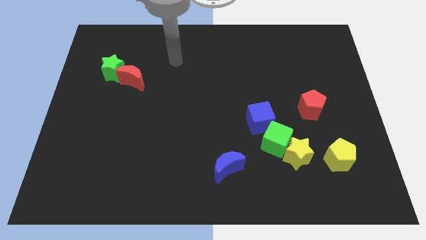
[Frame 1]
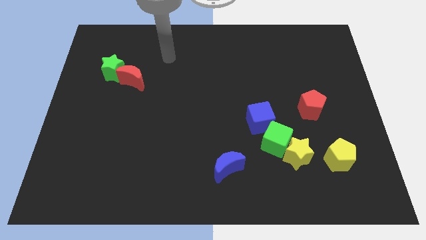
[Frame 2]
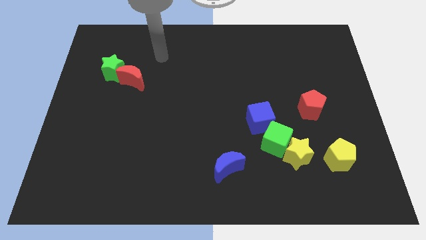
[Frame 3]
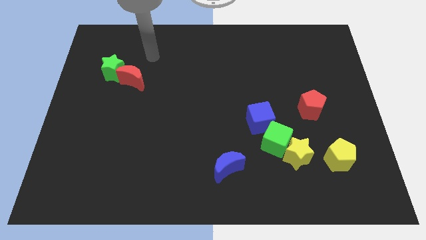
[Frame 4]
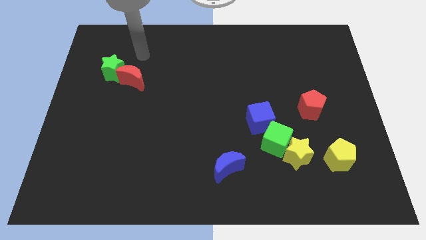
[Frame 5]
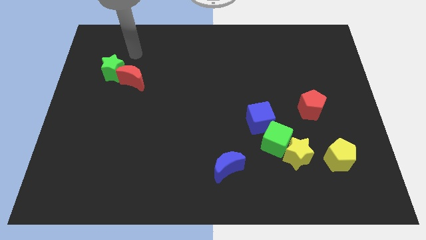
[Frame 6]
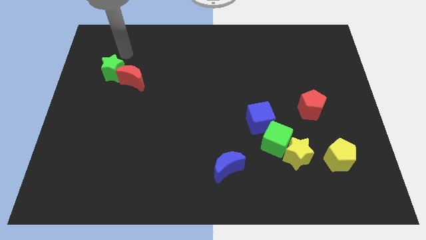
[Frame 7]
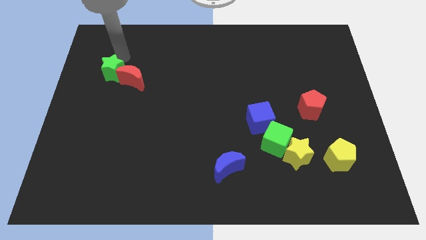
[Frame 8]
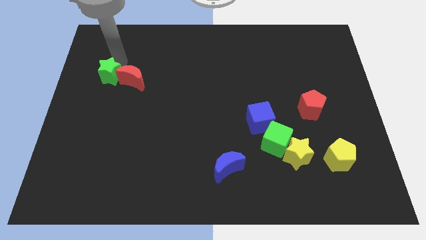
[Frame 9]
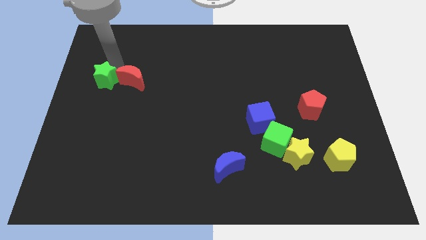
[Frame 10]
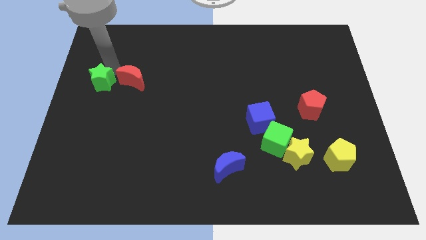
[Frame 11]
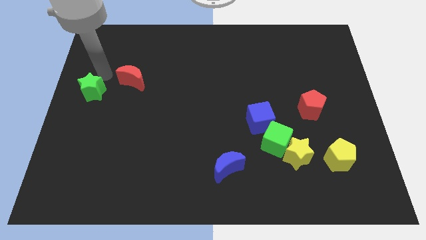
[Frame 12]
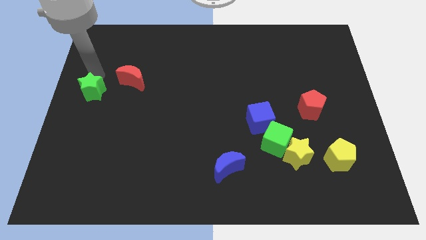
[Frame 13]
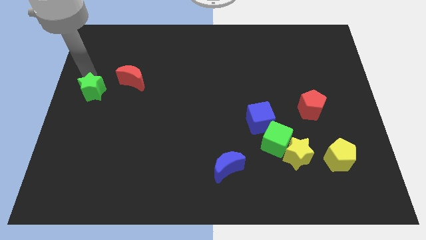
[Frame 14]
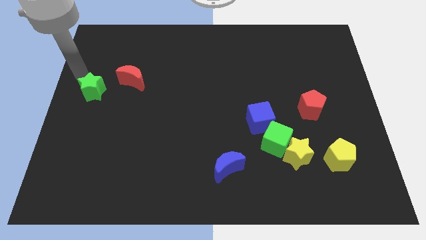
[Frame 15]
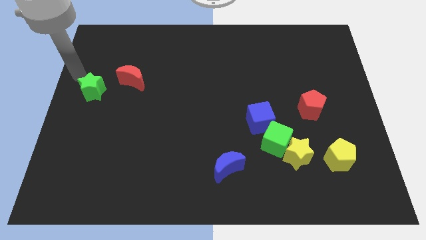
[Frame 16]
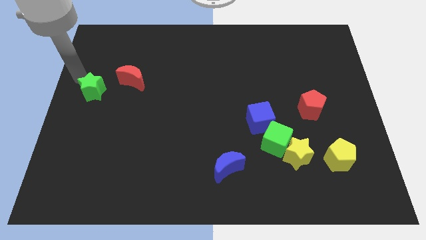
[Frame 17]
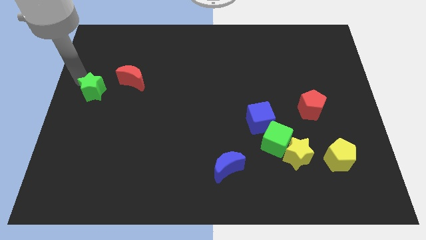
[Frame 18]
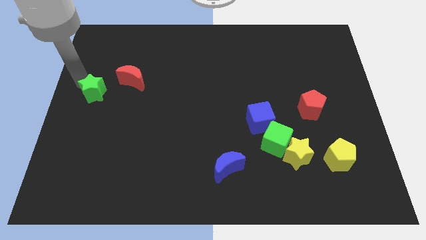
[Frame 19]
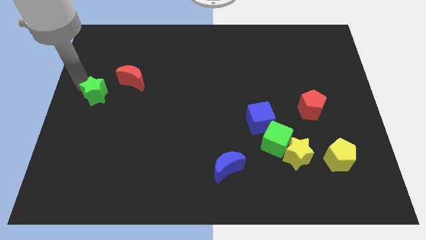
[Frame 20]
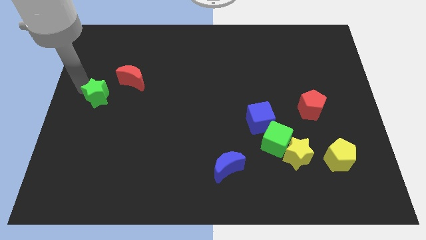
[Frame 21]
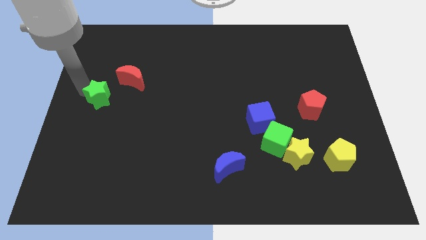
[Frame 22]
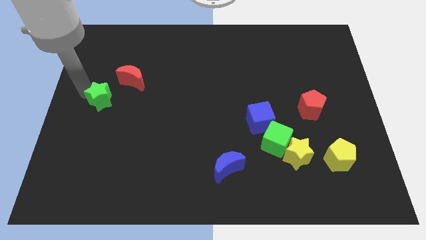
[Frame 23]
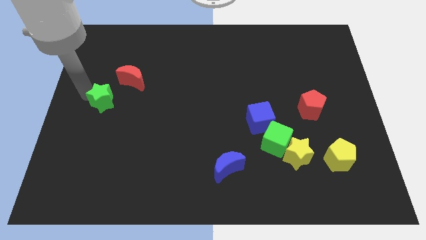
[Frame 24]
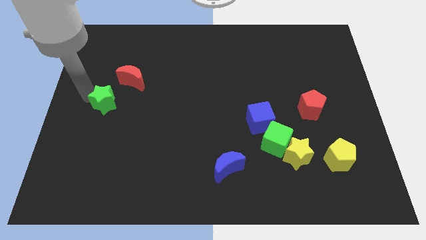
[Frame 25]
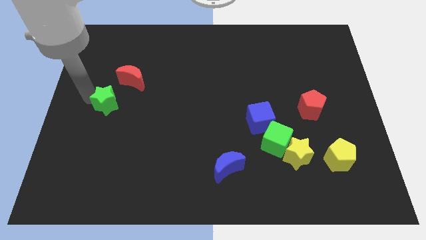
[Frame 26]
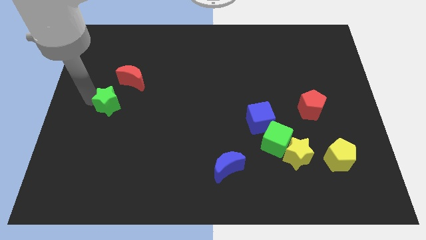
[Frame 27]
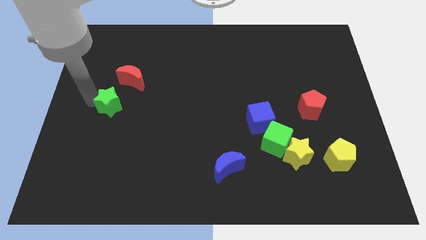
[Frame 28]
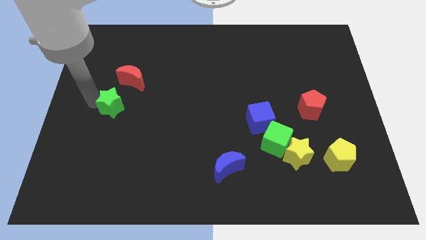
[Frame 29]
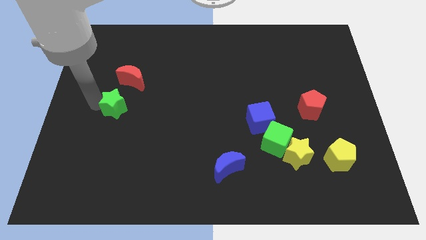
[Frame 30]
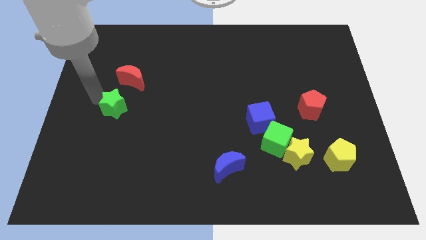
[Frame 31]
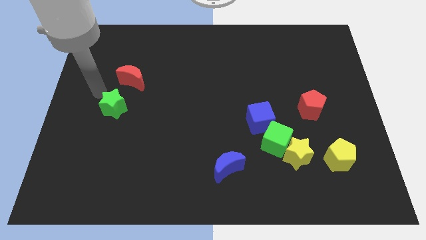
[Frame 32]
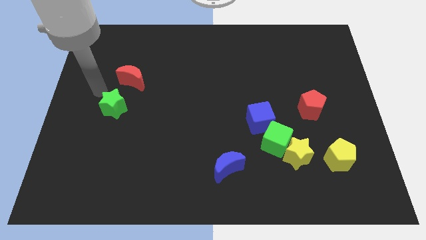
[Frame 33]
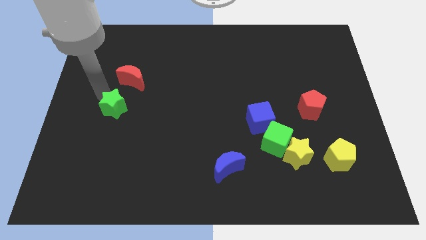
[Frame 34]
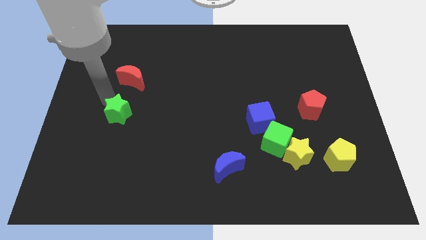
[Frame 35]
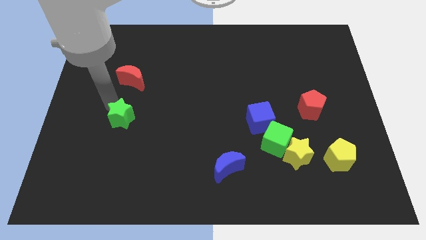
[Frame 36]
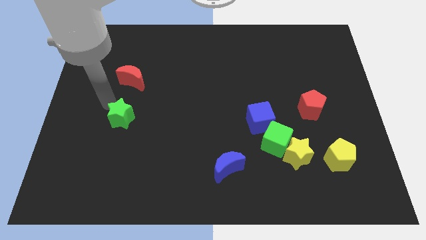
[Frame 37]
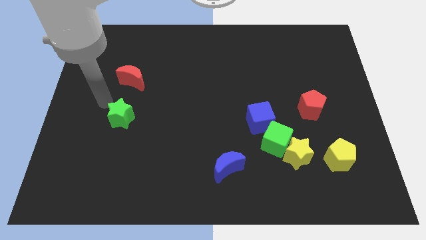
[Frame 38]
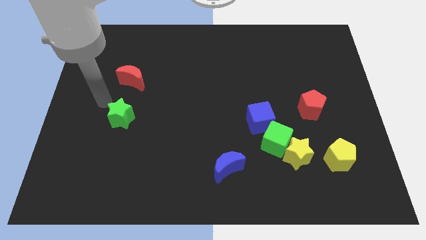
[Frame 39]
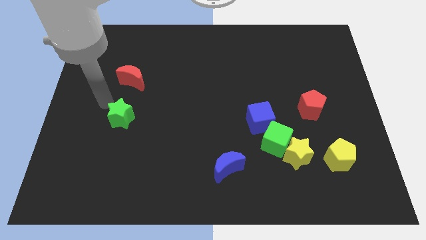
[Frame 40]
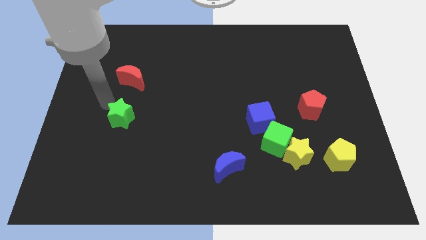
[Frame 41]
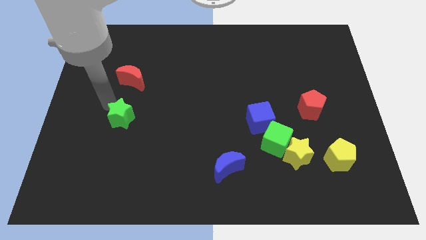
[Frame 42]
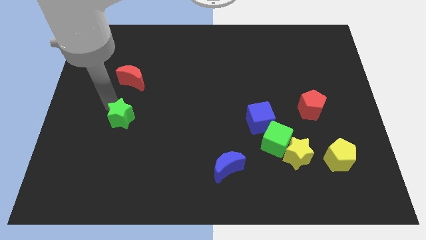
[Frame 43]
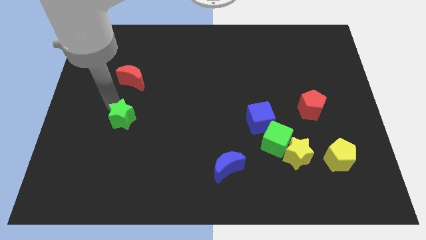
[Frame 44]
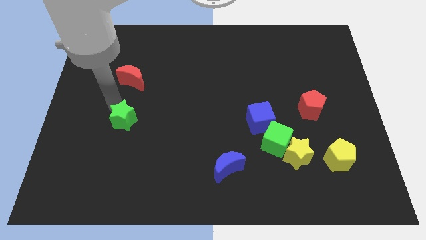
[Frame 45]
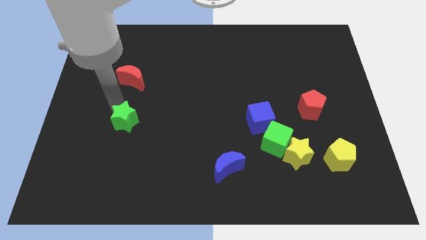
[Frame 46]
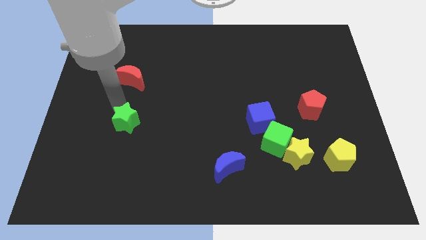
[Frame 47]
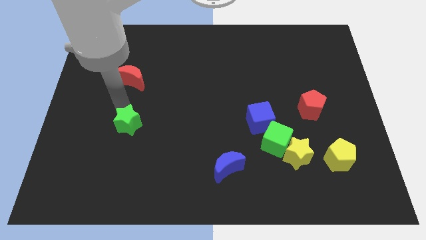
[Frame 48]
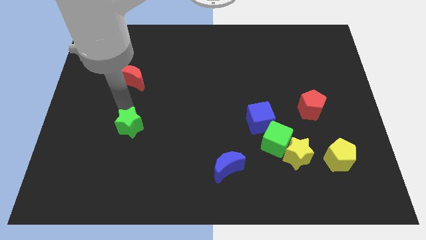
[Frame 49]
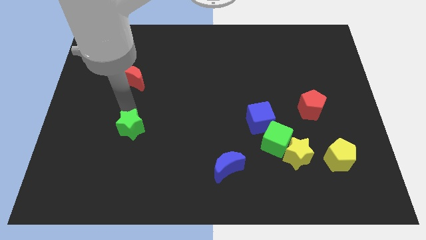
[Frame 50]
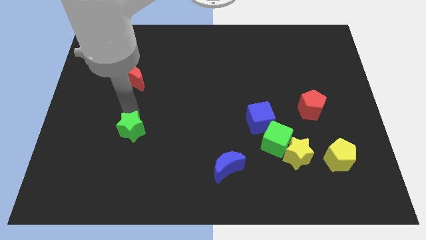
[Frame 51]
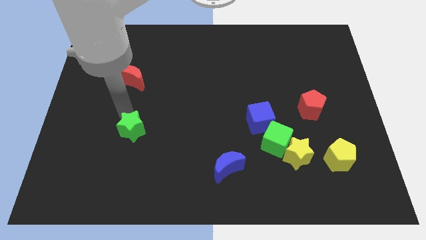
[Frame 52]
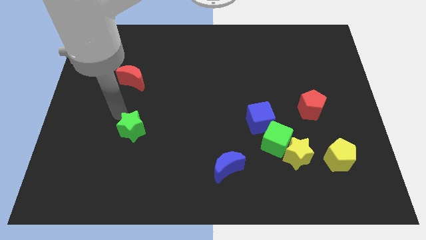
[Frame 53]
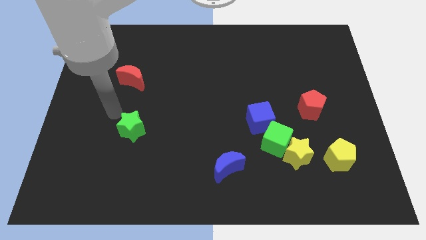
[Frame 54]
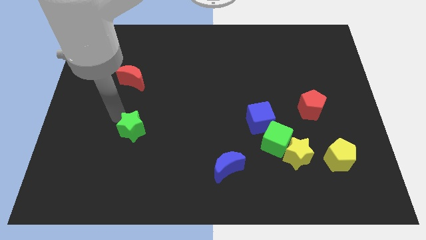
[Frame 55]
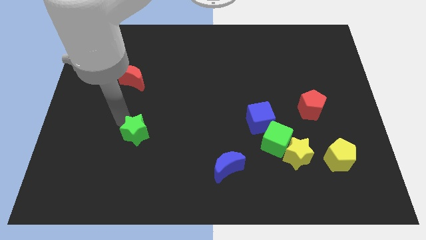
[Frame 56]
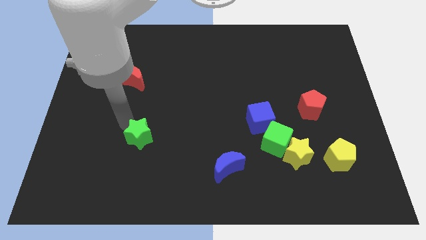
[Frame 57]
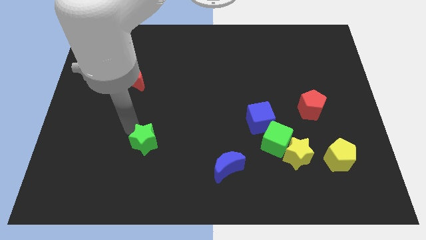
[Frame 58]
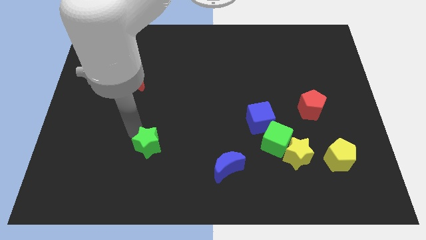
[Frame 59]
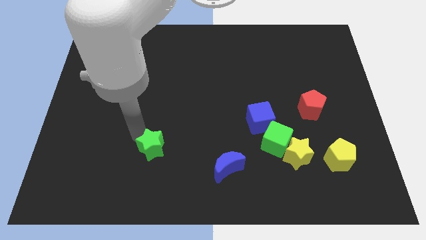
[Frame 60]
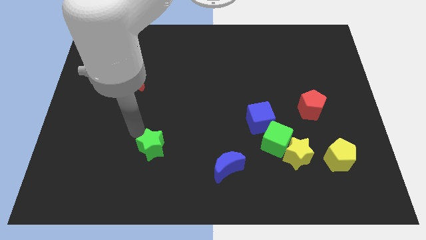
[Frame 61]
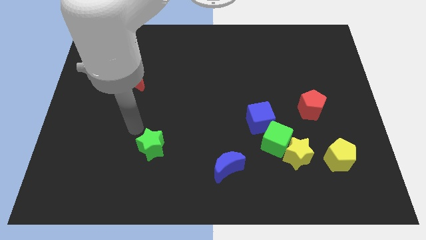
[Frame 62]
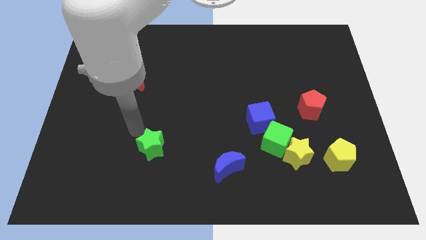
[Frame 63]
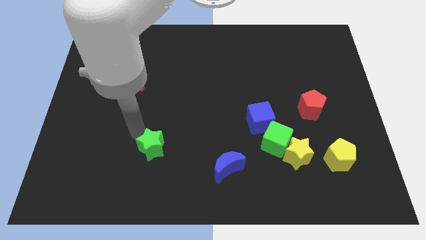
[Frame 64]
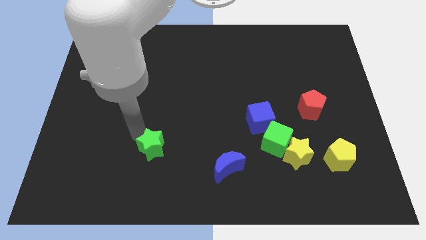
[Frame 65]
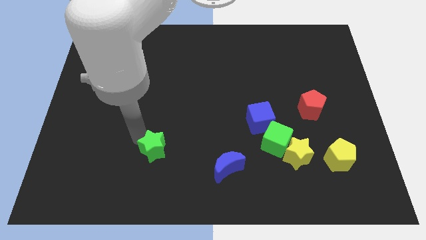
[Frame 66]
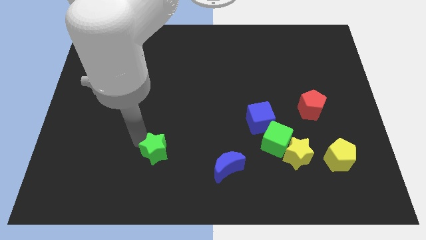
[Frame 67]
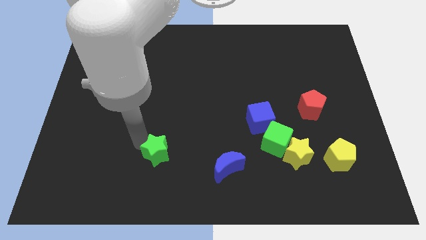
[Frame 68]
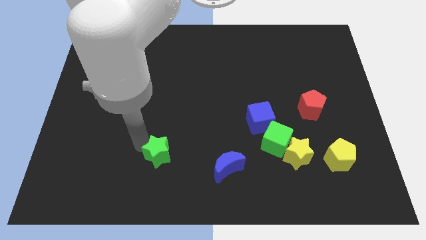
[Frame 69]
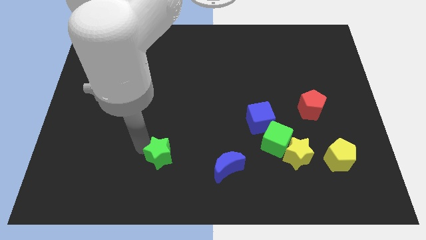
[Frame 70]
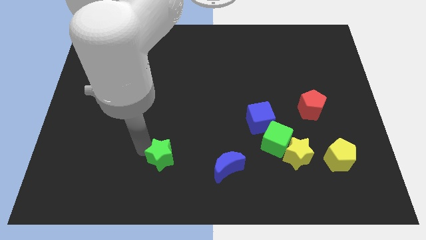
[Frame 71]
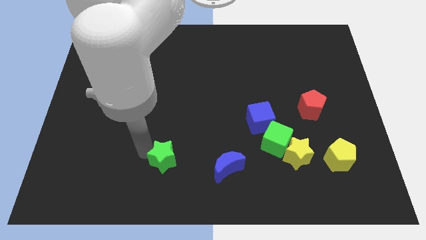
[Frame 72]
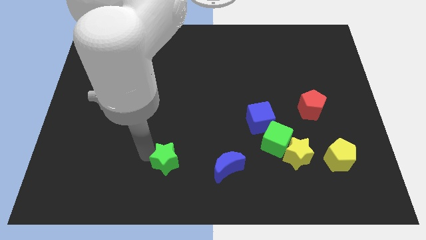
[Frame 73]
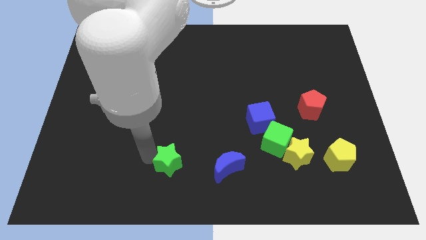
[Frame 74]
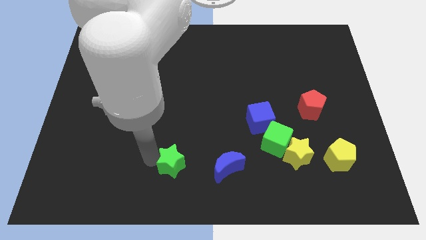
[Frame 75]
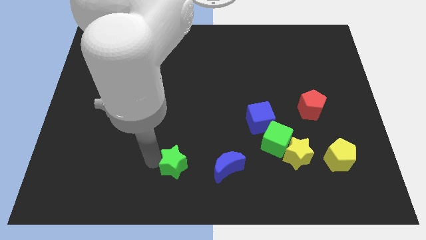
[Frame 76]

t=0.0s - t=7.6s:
push the green star to the bottom side
